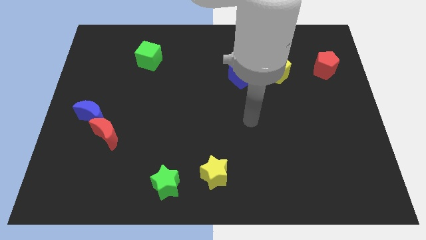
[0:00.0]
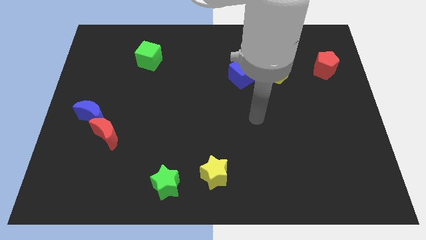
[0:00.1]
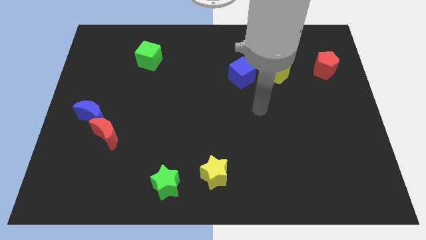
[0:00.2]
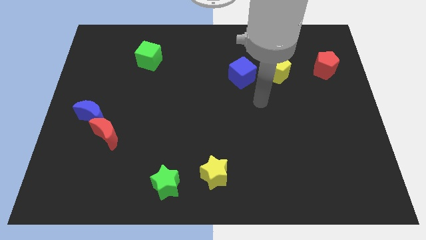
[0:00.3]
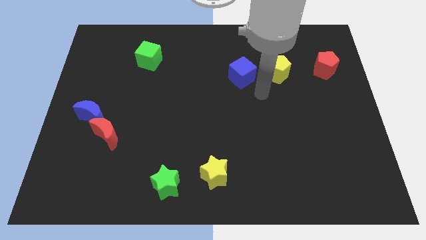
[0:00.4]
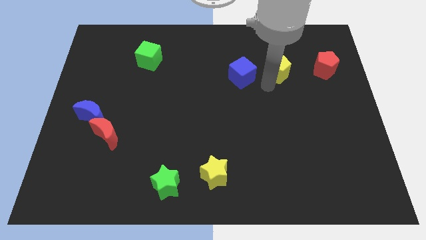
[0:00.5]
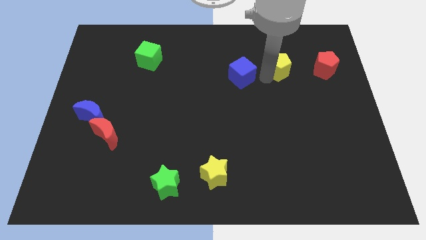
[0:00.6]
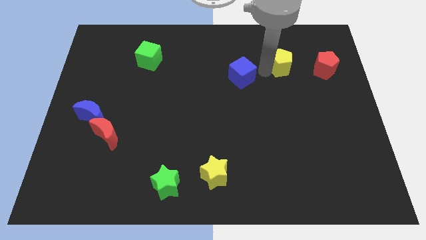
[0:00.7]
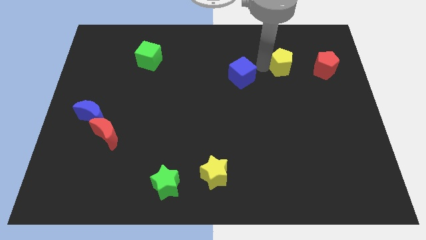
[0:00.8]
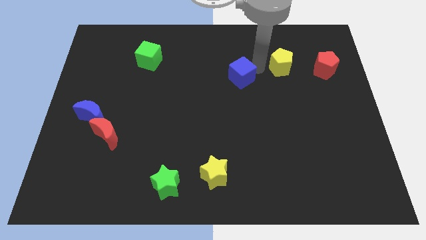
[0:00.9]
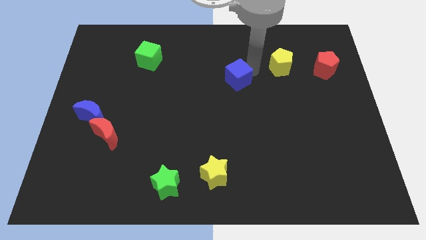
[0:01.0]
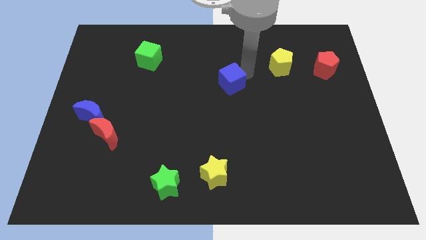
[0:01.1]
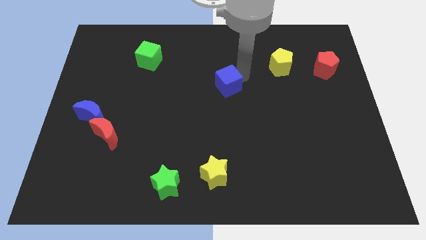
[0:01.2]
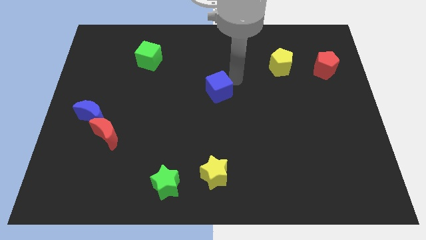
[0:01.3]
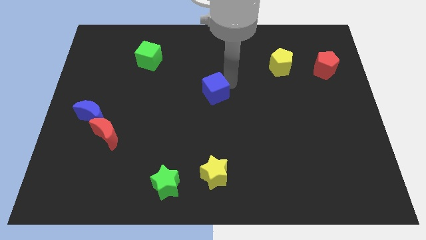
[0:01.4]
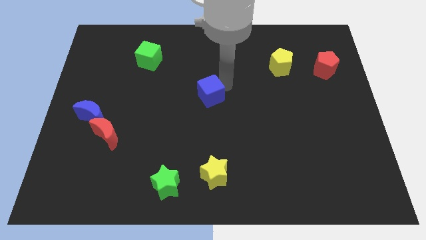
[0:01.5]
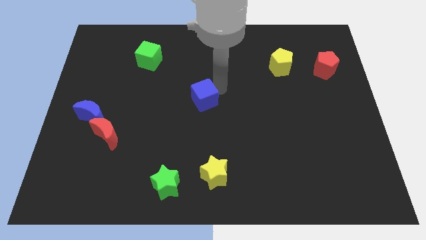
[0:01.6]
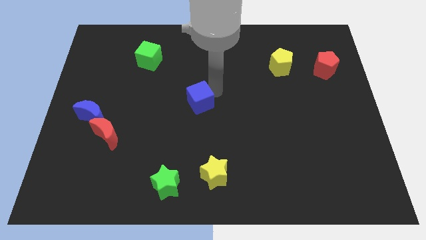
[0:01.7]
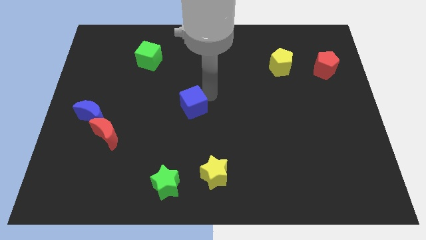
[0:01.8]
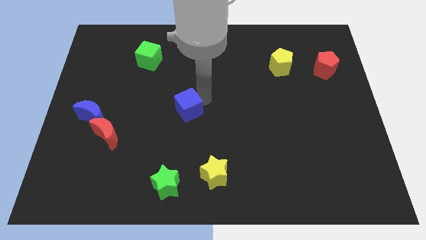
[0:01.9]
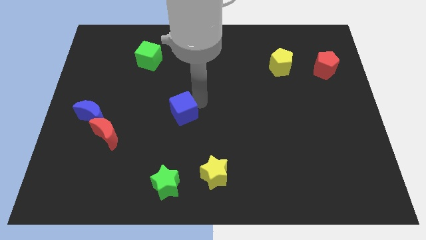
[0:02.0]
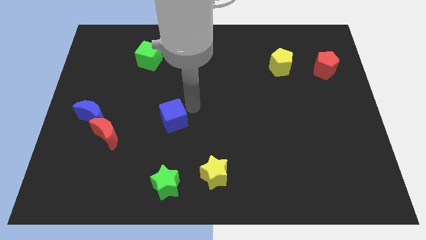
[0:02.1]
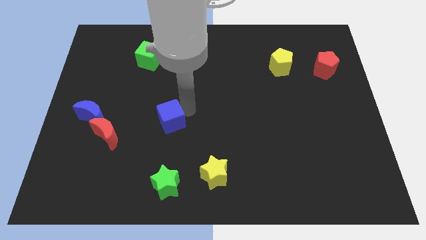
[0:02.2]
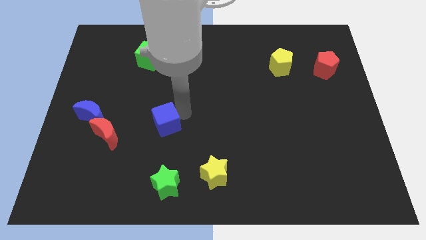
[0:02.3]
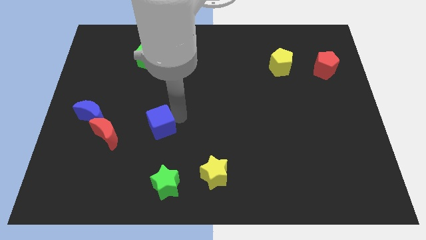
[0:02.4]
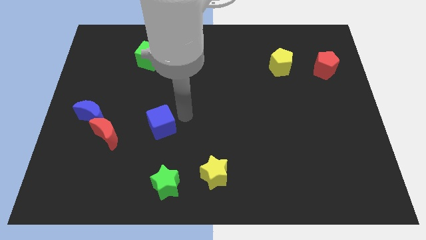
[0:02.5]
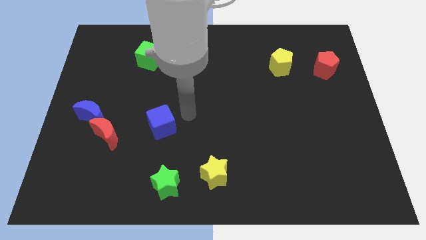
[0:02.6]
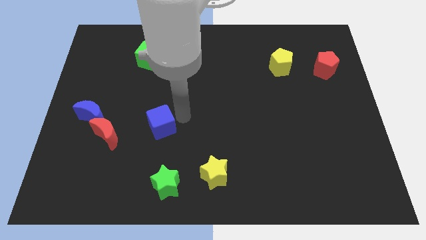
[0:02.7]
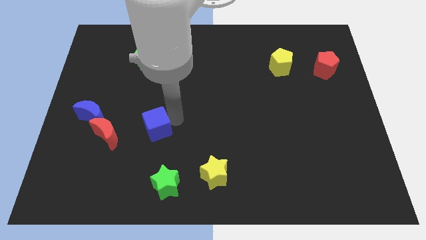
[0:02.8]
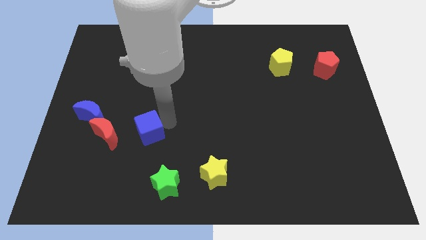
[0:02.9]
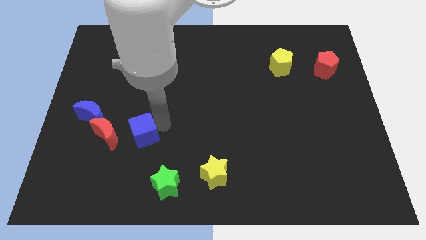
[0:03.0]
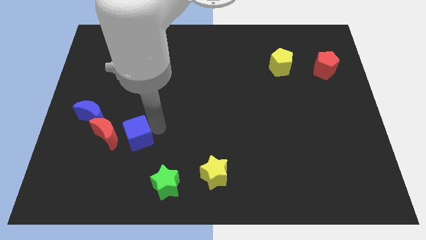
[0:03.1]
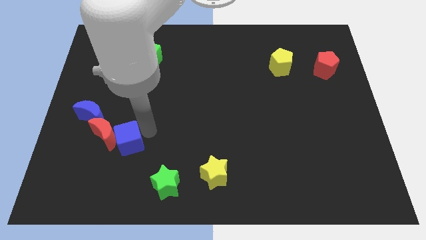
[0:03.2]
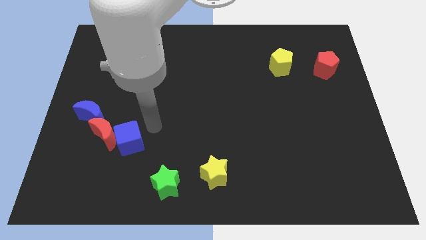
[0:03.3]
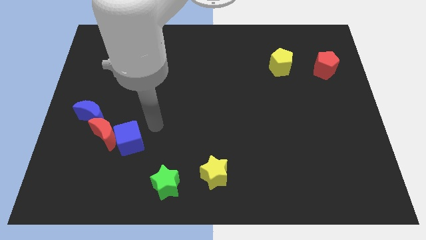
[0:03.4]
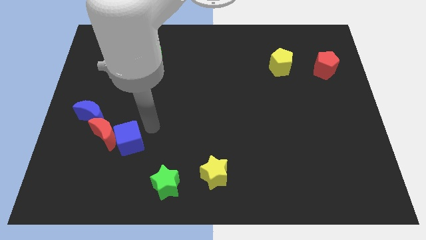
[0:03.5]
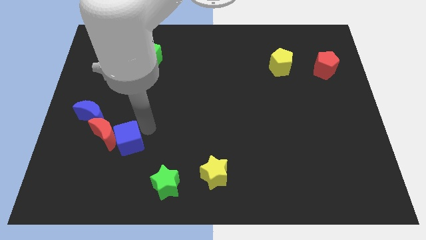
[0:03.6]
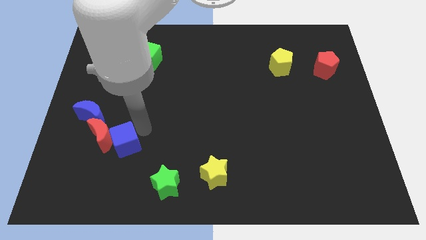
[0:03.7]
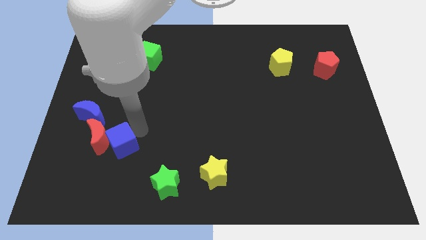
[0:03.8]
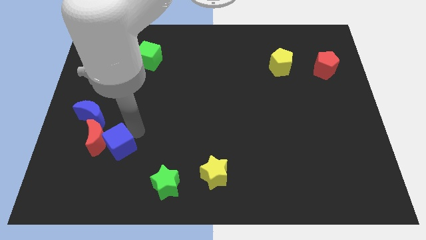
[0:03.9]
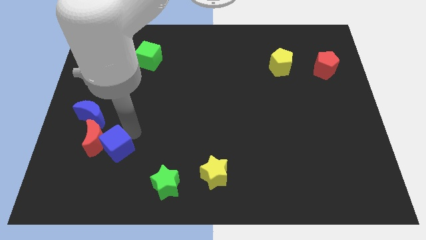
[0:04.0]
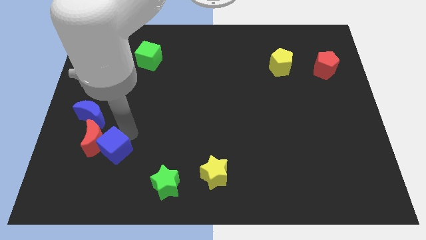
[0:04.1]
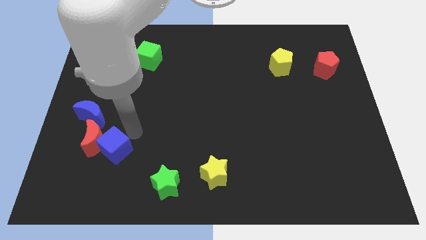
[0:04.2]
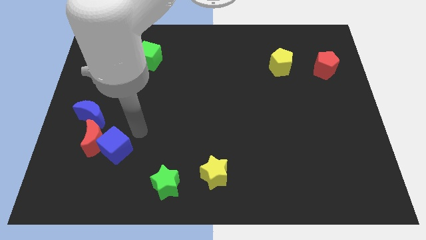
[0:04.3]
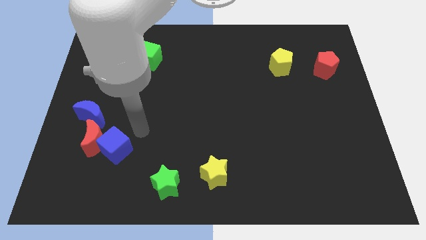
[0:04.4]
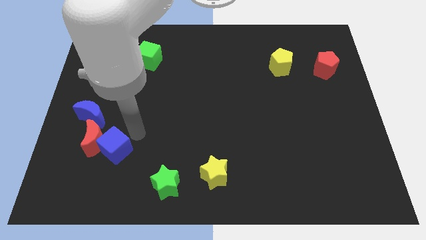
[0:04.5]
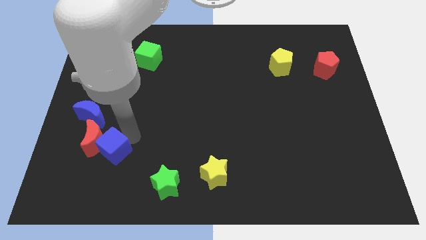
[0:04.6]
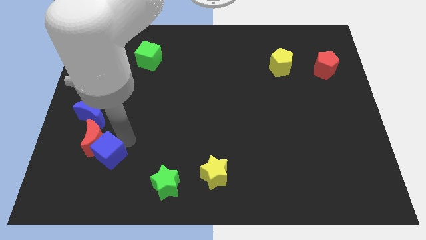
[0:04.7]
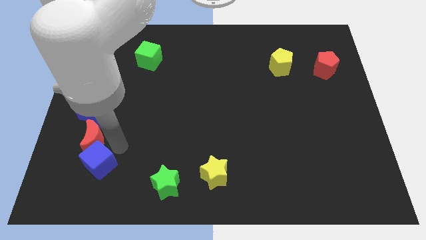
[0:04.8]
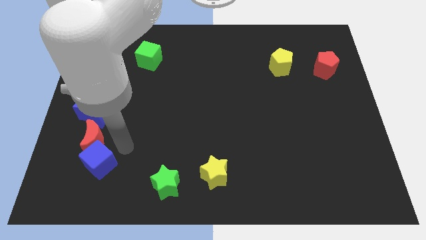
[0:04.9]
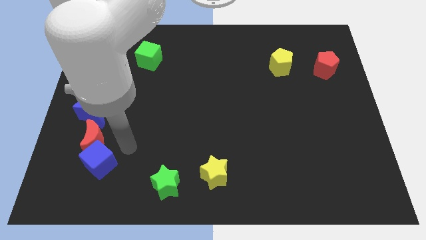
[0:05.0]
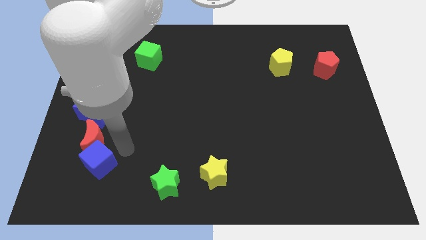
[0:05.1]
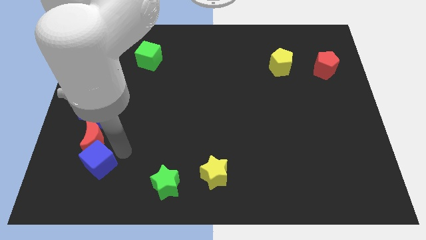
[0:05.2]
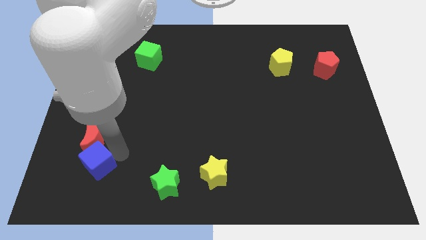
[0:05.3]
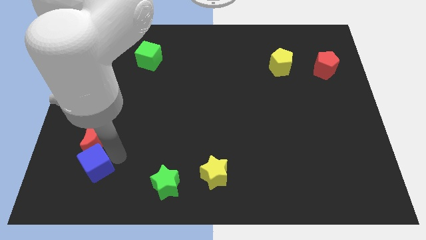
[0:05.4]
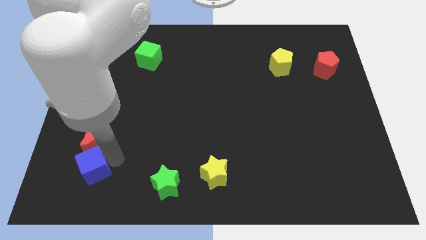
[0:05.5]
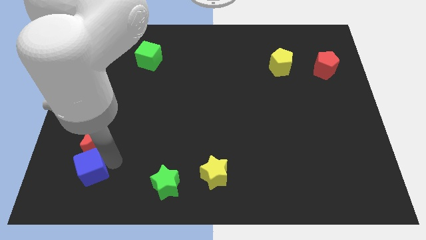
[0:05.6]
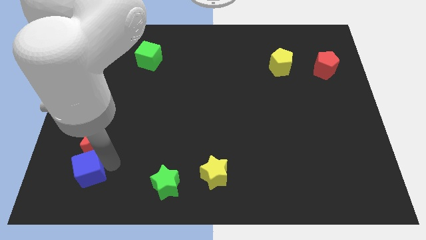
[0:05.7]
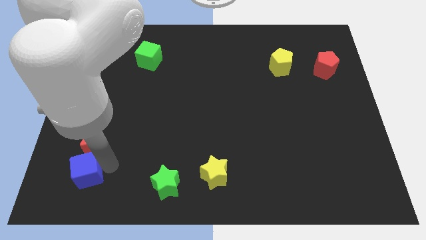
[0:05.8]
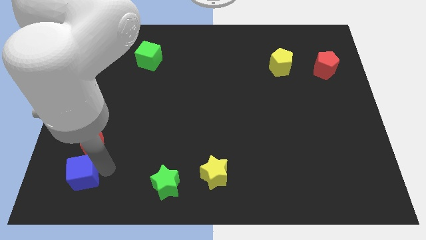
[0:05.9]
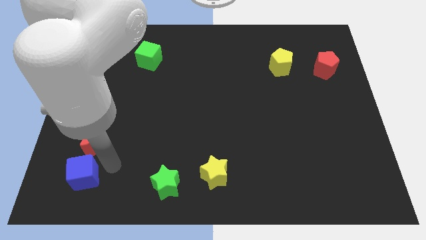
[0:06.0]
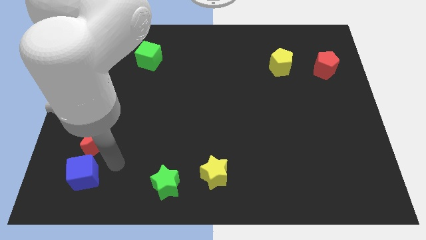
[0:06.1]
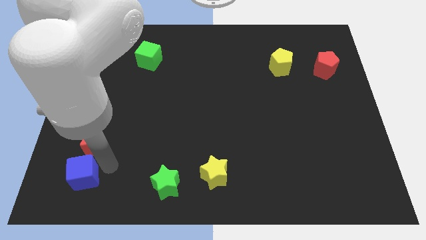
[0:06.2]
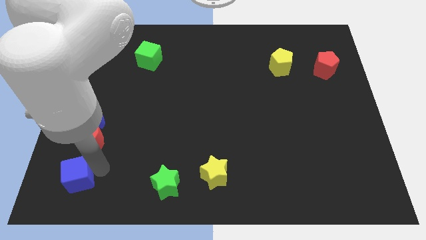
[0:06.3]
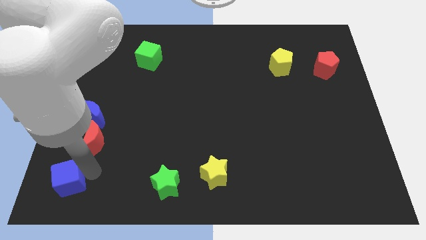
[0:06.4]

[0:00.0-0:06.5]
slide the blue cube to the bottom left

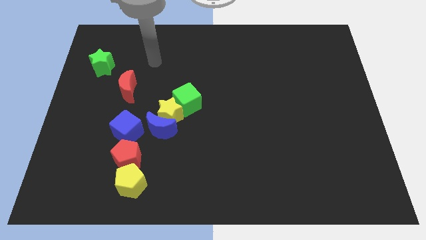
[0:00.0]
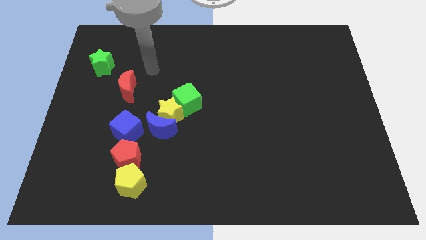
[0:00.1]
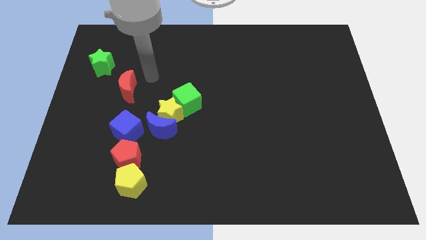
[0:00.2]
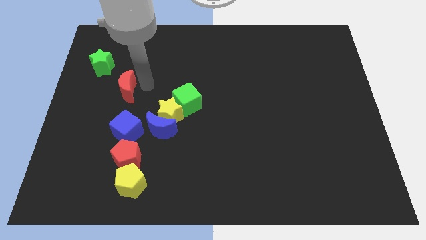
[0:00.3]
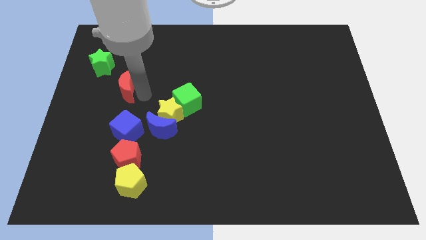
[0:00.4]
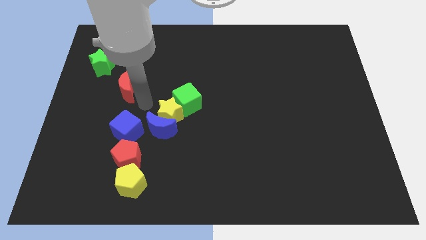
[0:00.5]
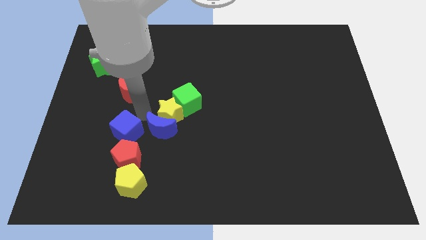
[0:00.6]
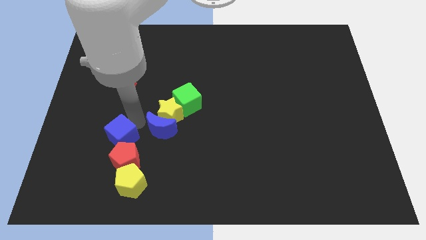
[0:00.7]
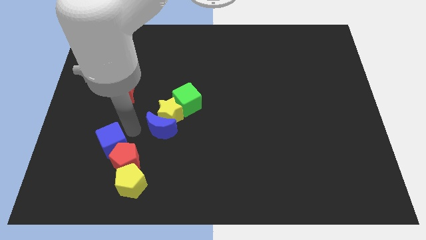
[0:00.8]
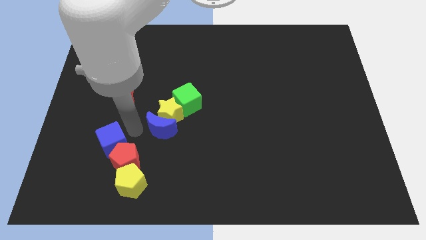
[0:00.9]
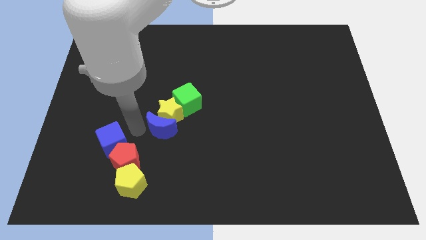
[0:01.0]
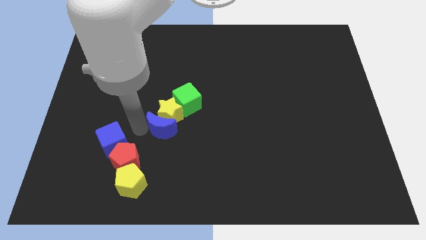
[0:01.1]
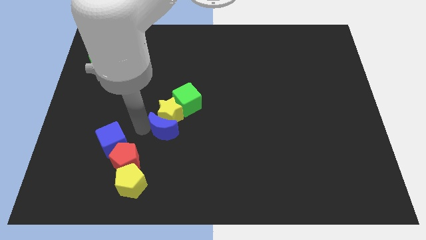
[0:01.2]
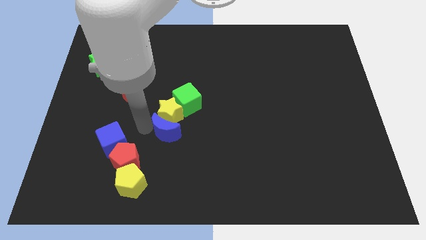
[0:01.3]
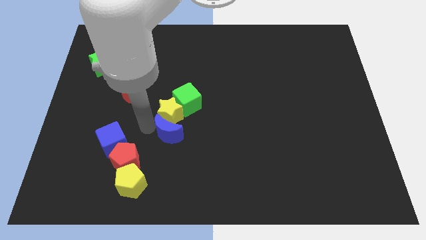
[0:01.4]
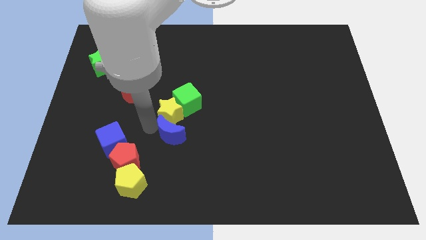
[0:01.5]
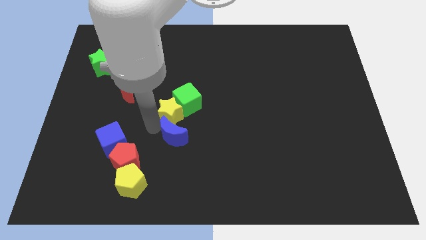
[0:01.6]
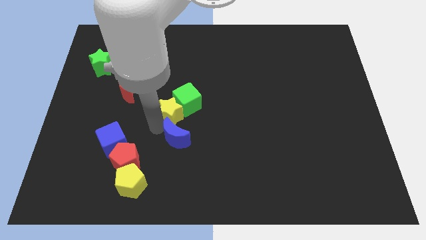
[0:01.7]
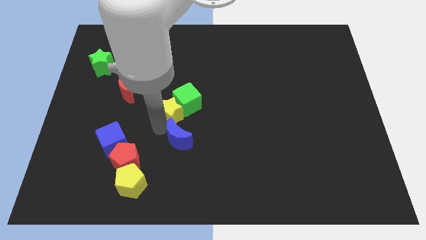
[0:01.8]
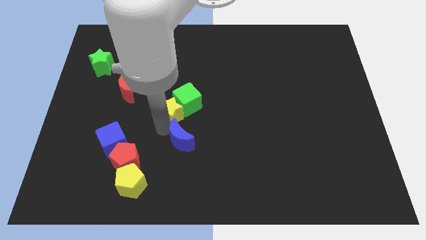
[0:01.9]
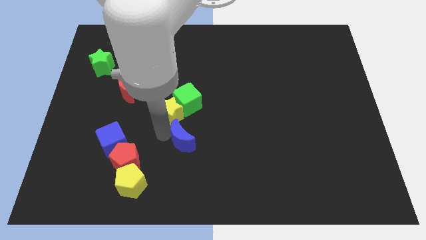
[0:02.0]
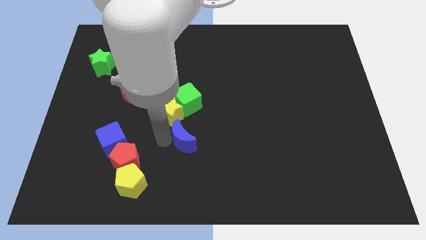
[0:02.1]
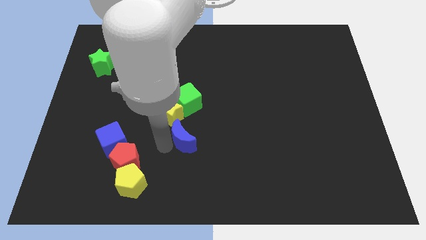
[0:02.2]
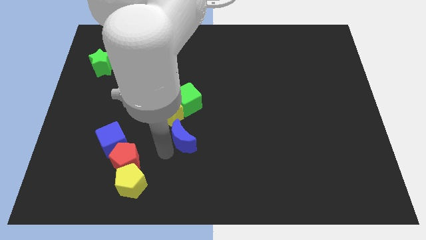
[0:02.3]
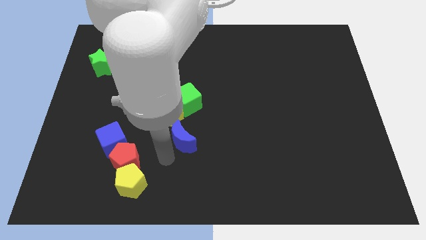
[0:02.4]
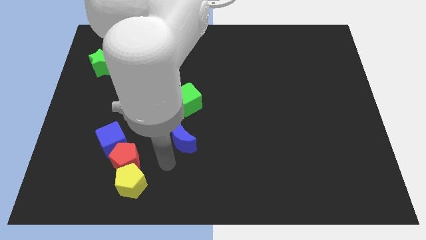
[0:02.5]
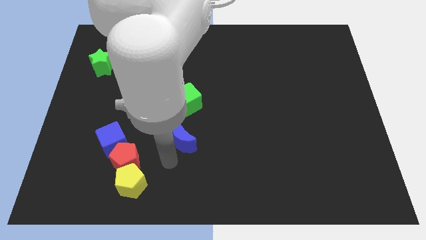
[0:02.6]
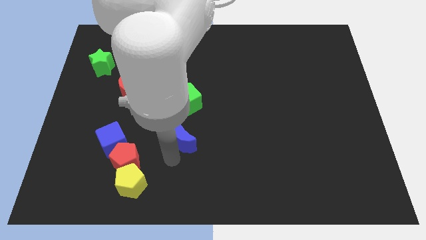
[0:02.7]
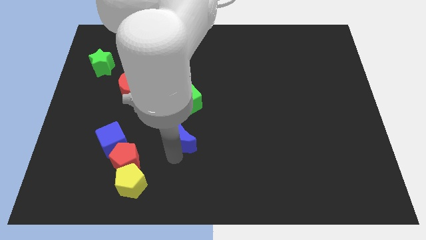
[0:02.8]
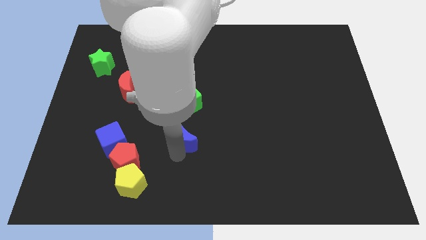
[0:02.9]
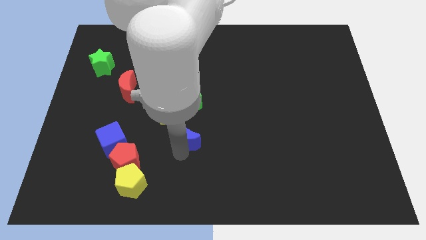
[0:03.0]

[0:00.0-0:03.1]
put the blue moon to the center
